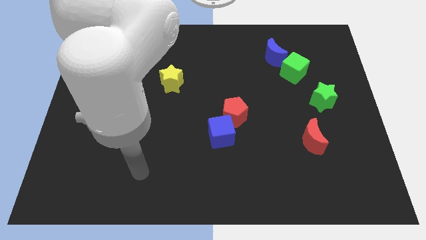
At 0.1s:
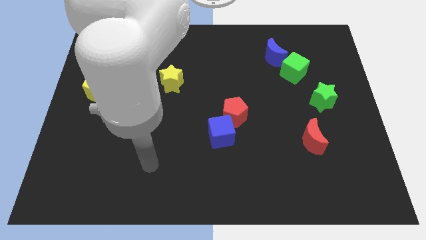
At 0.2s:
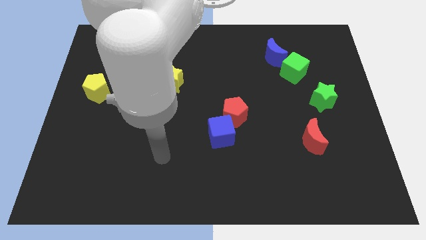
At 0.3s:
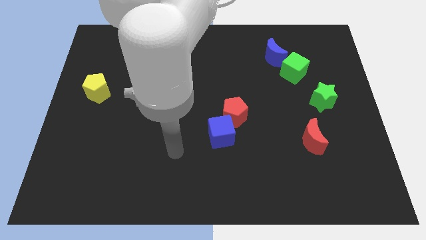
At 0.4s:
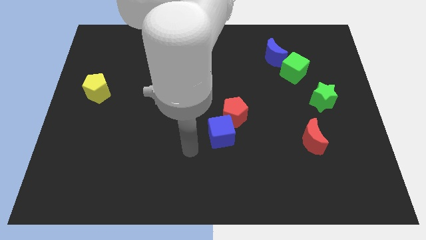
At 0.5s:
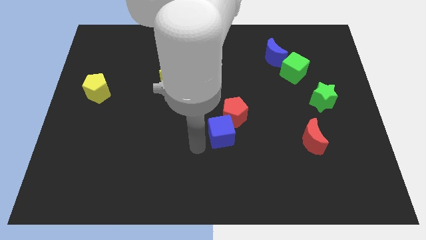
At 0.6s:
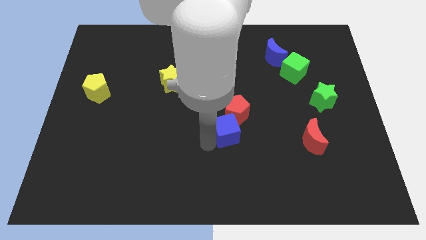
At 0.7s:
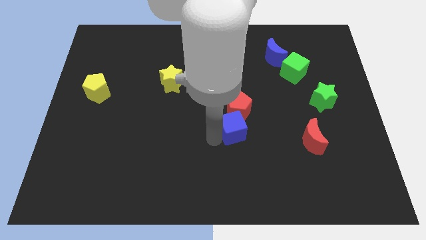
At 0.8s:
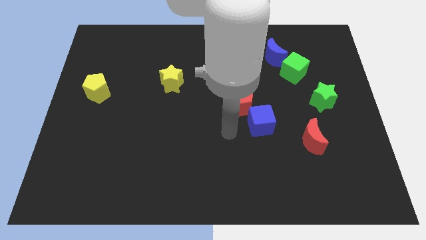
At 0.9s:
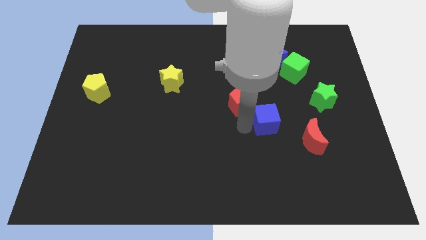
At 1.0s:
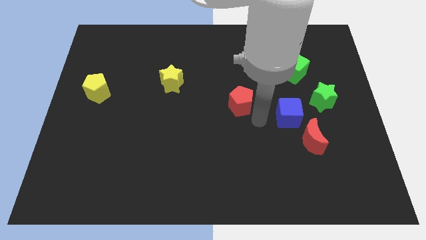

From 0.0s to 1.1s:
pull the red pentagon apart from the blue cube

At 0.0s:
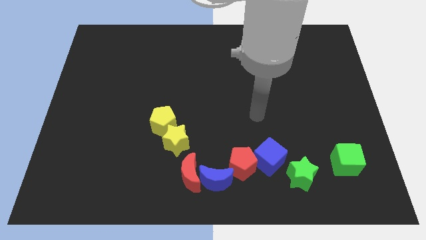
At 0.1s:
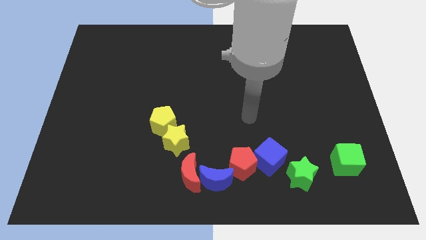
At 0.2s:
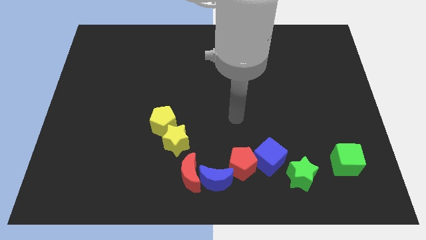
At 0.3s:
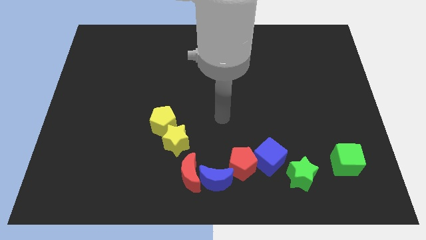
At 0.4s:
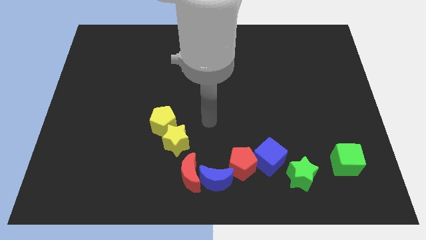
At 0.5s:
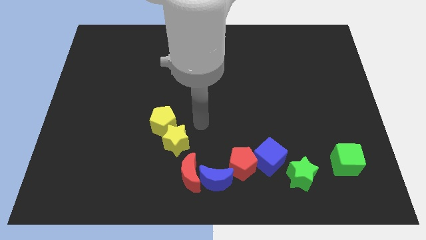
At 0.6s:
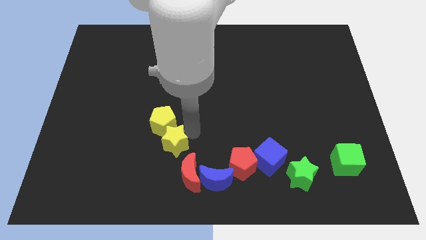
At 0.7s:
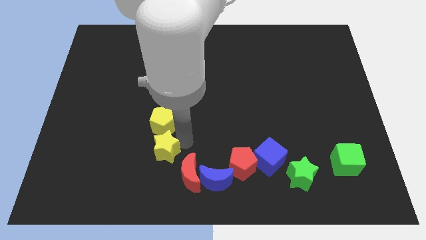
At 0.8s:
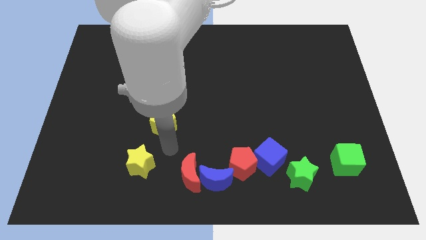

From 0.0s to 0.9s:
pull the yellow pentagon apart from the yellow star

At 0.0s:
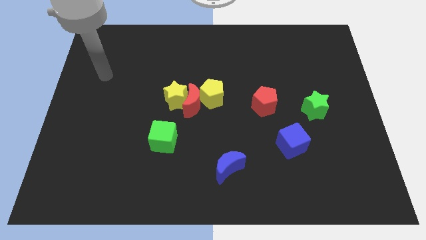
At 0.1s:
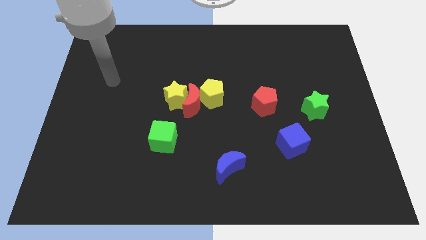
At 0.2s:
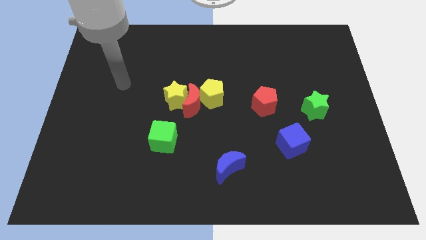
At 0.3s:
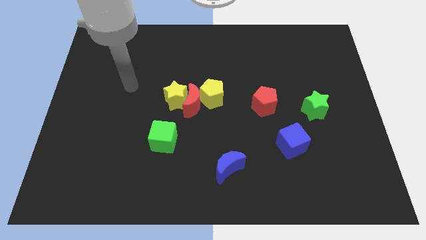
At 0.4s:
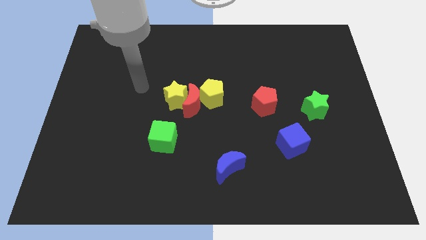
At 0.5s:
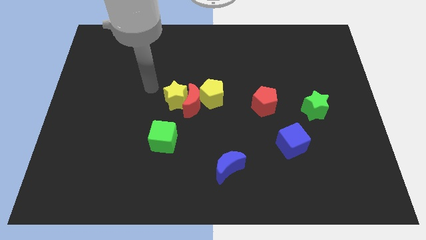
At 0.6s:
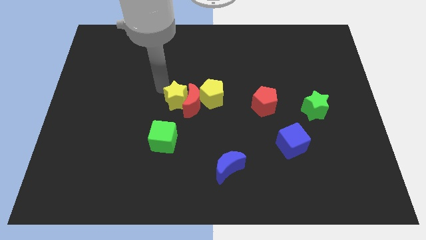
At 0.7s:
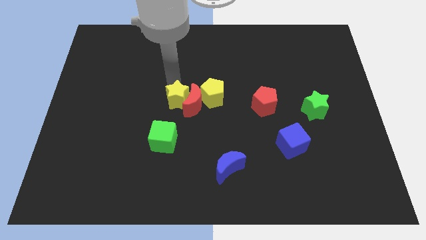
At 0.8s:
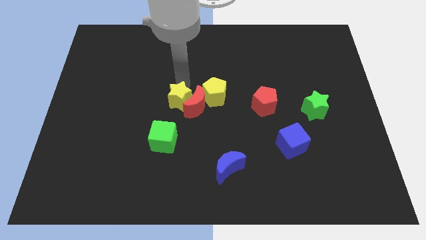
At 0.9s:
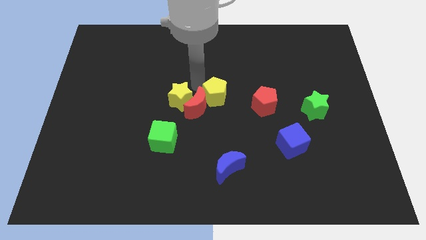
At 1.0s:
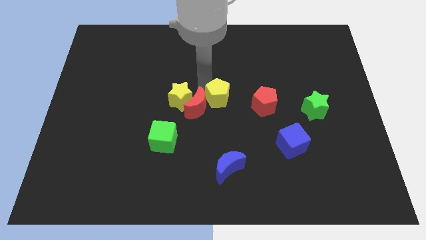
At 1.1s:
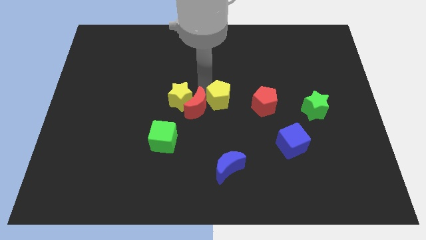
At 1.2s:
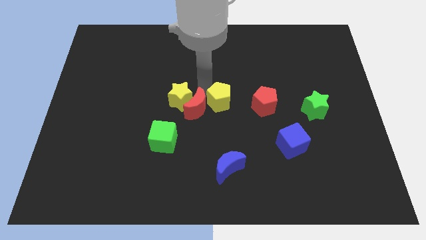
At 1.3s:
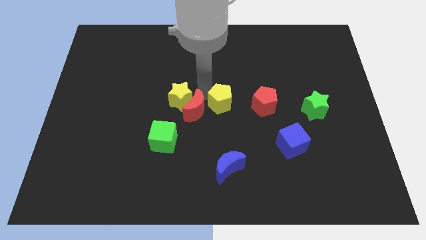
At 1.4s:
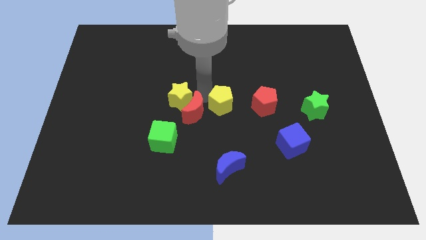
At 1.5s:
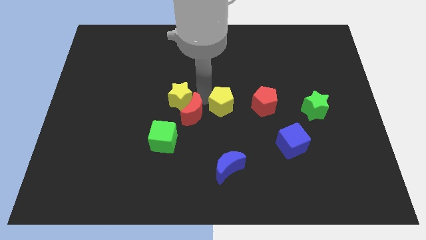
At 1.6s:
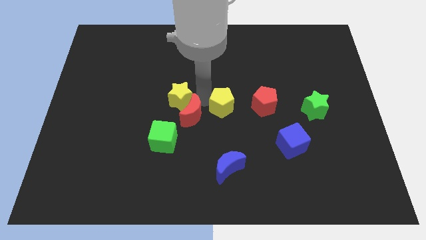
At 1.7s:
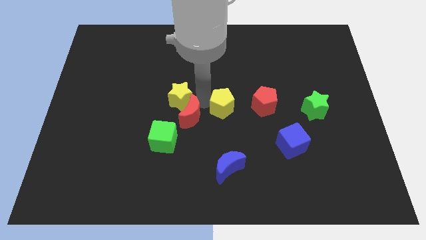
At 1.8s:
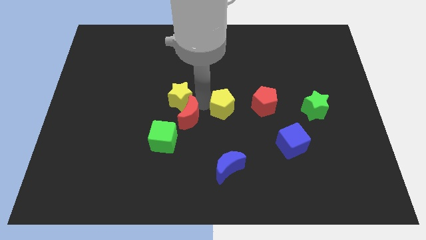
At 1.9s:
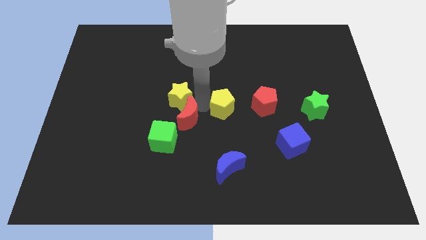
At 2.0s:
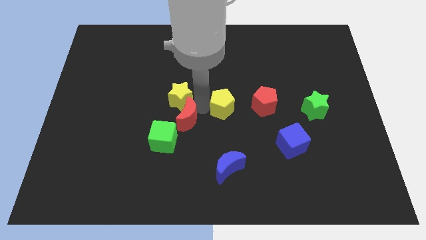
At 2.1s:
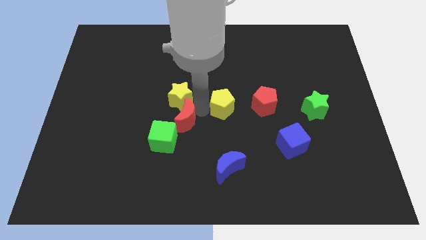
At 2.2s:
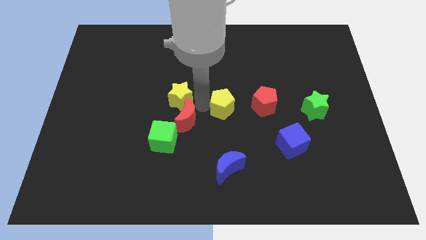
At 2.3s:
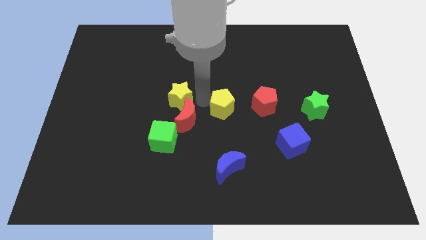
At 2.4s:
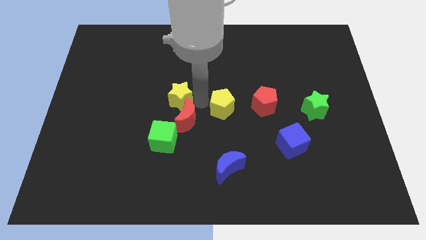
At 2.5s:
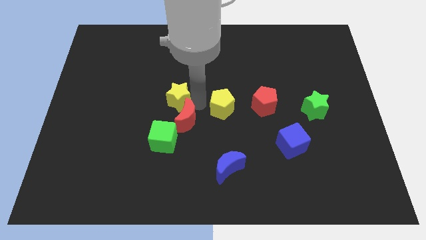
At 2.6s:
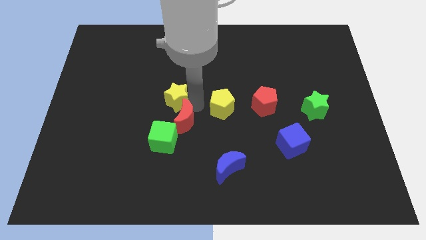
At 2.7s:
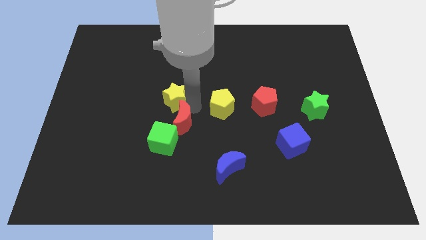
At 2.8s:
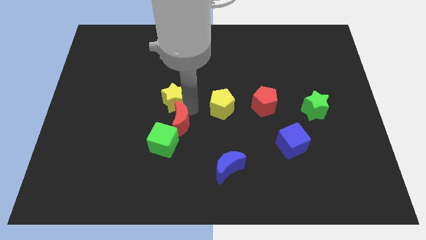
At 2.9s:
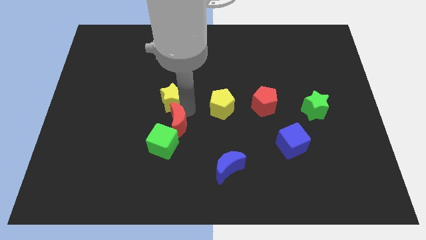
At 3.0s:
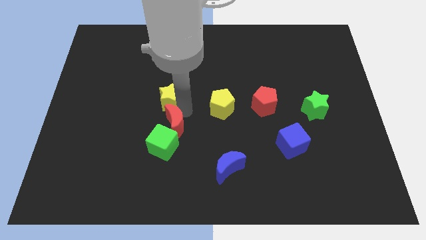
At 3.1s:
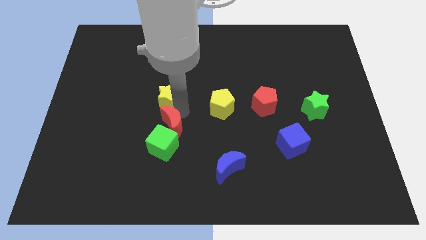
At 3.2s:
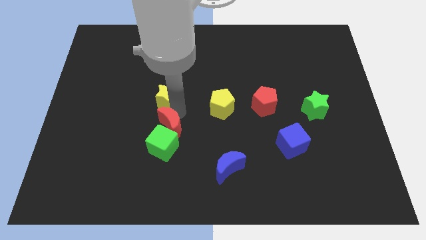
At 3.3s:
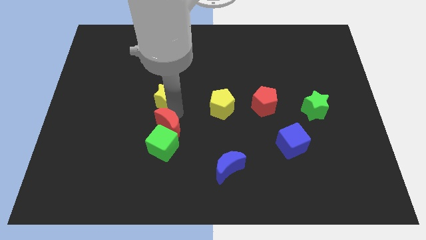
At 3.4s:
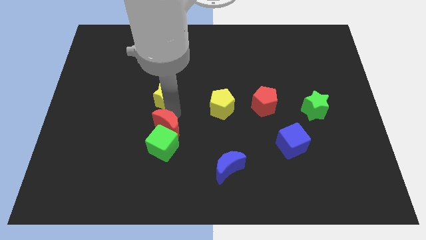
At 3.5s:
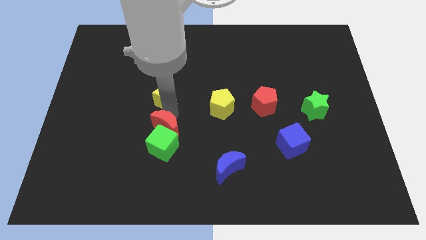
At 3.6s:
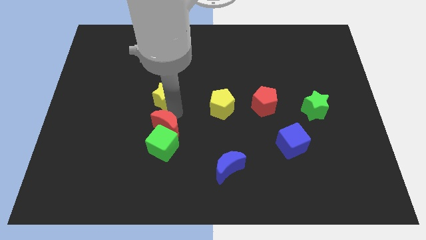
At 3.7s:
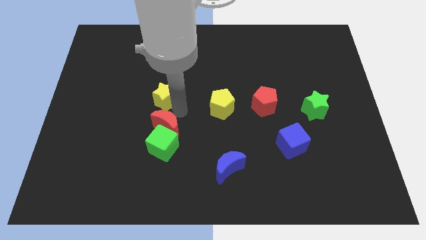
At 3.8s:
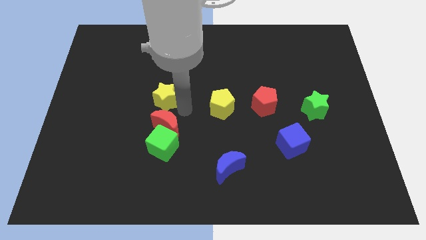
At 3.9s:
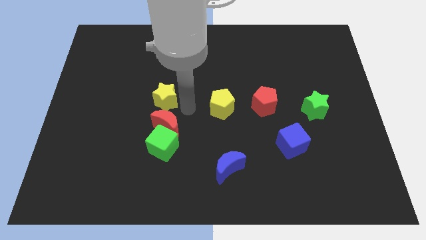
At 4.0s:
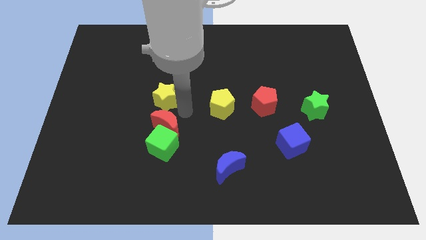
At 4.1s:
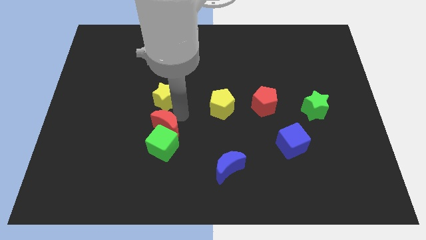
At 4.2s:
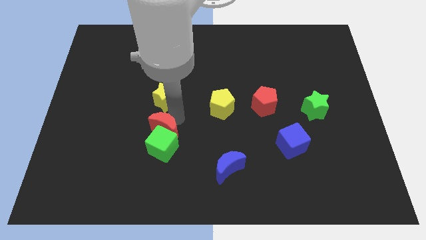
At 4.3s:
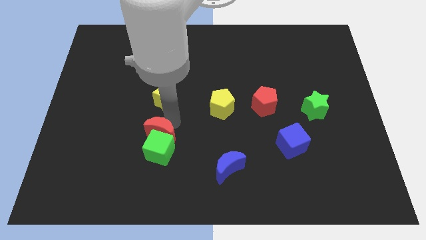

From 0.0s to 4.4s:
separate the red moon from the yellow star and yellow pentagon

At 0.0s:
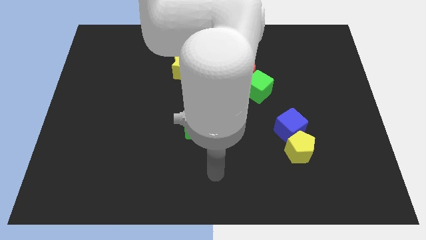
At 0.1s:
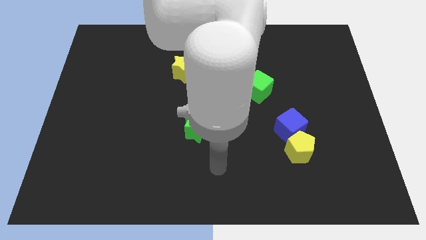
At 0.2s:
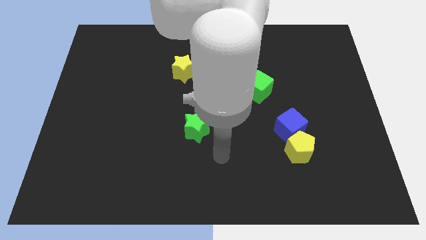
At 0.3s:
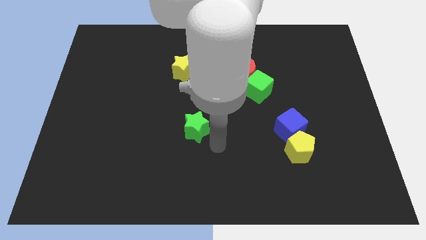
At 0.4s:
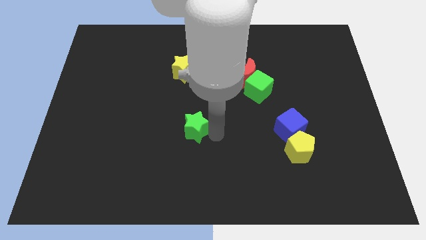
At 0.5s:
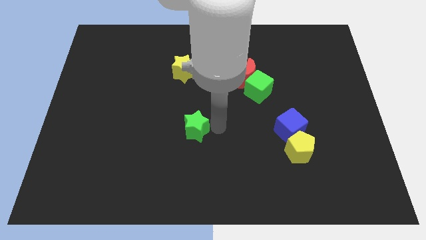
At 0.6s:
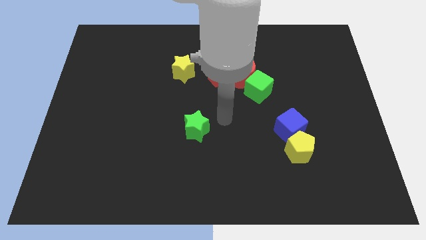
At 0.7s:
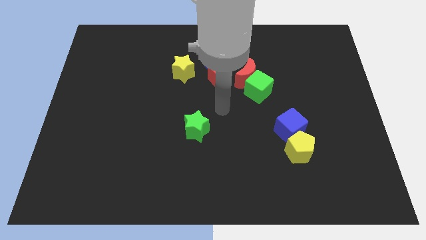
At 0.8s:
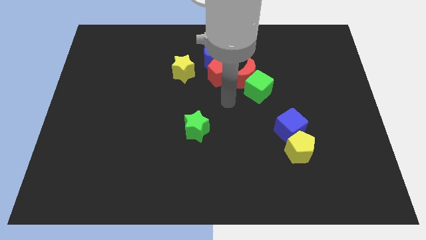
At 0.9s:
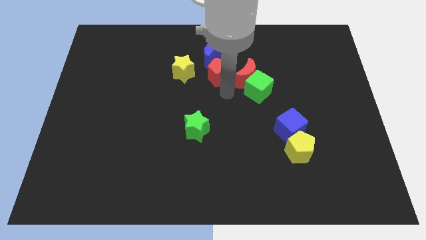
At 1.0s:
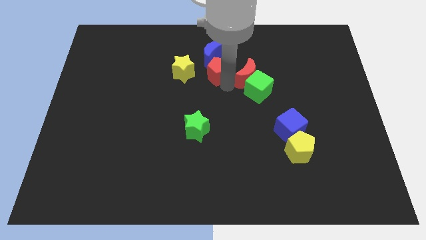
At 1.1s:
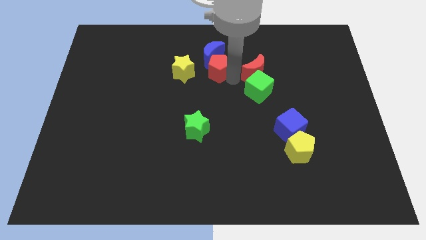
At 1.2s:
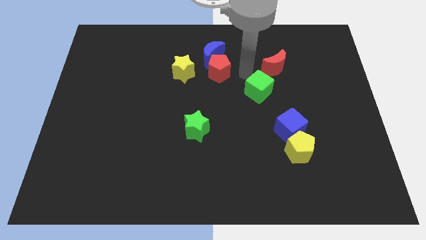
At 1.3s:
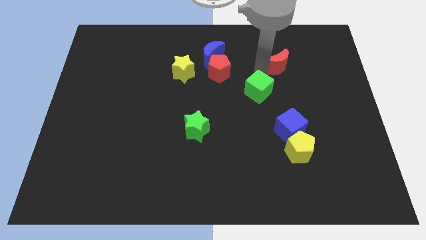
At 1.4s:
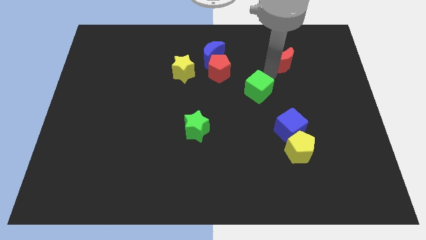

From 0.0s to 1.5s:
pull the green cube apart from the red moon

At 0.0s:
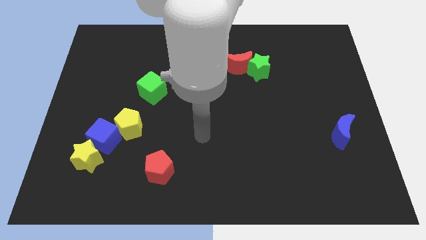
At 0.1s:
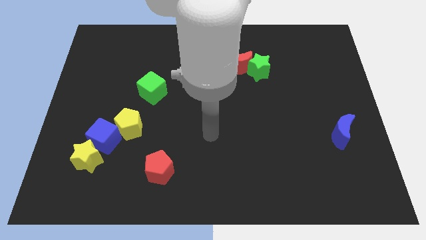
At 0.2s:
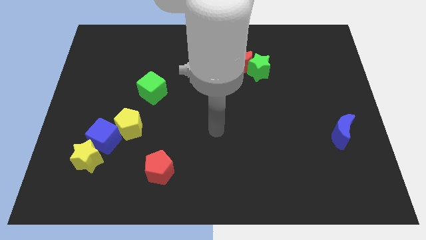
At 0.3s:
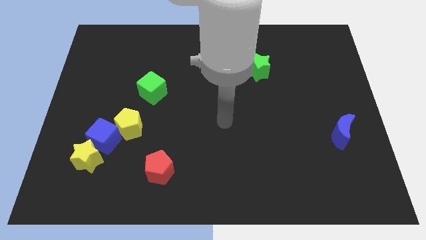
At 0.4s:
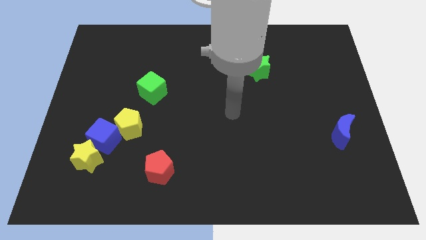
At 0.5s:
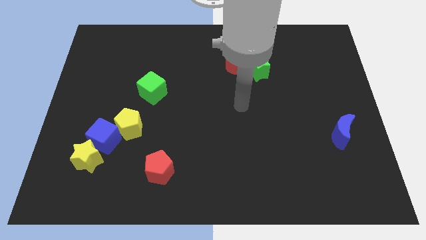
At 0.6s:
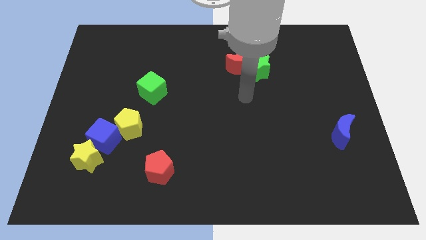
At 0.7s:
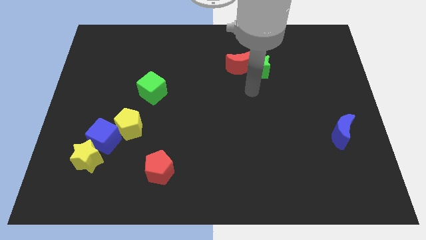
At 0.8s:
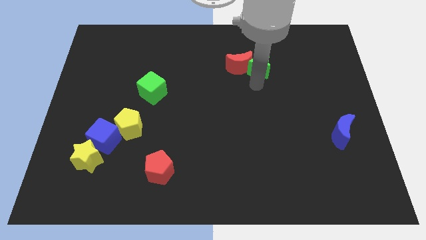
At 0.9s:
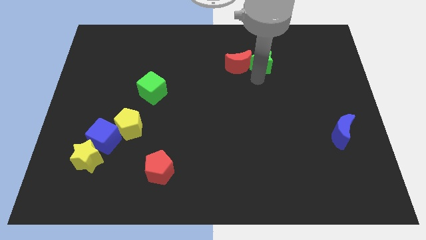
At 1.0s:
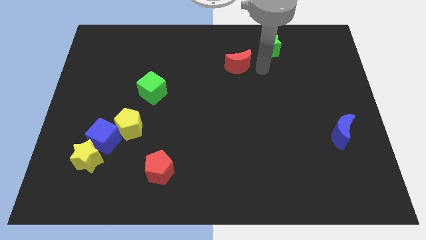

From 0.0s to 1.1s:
pull the red moon apart from the green star

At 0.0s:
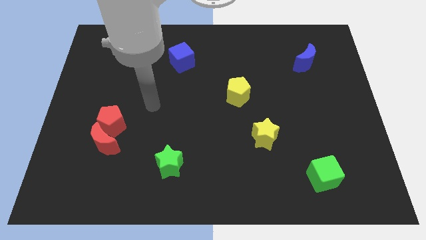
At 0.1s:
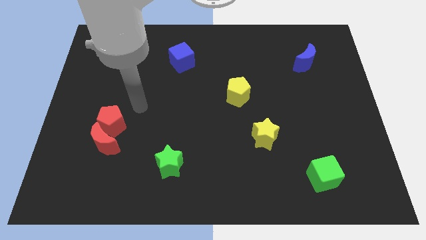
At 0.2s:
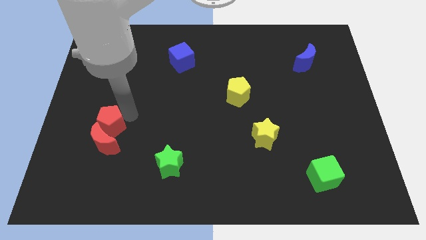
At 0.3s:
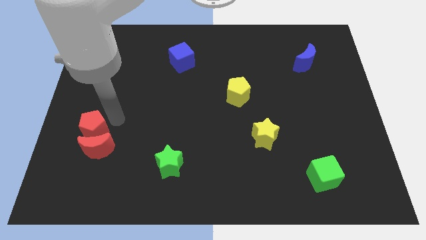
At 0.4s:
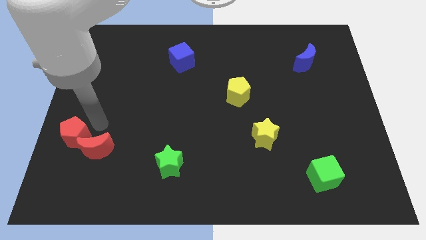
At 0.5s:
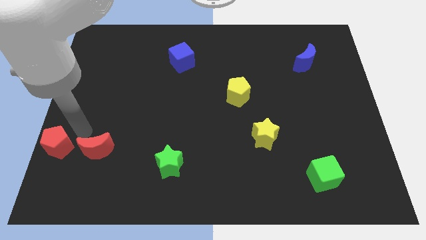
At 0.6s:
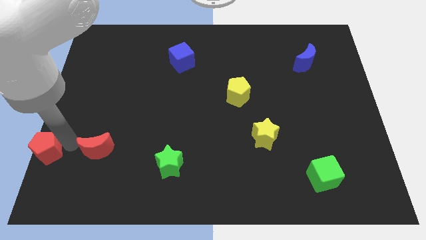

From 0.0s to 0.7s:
separate the red moon from the red pentagon
